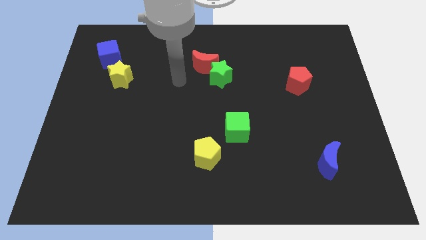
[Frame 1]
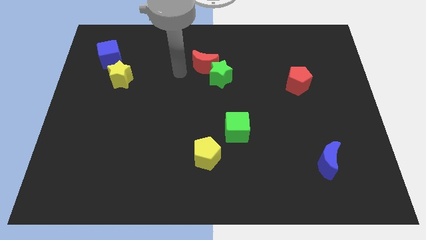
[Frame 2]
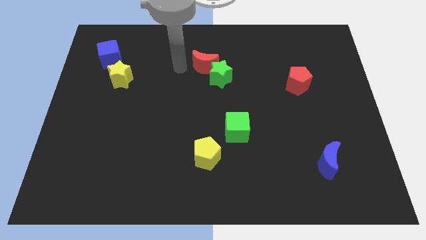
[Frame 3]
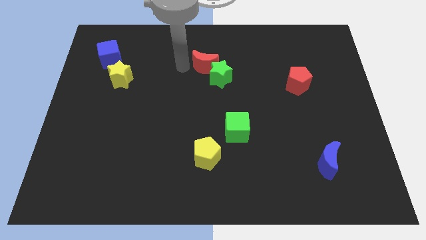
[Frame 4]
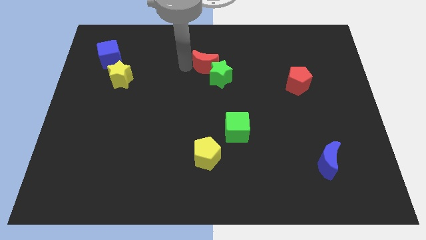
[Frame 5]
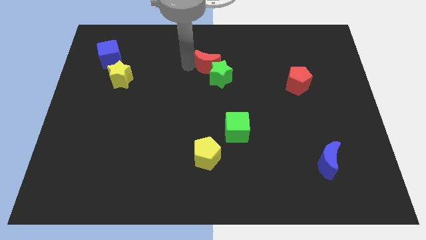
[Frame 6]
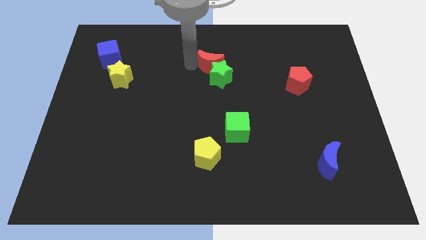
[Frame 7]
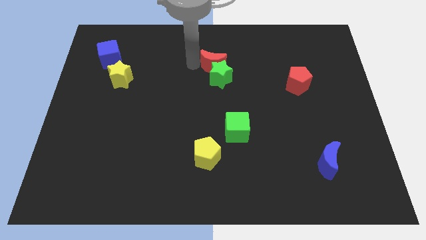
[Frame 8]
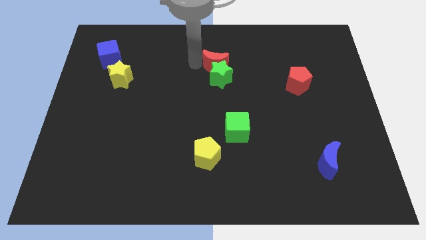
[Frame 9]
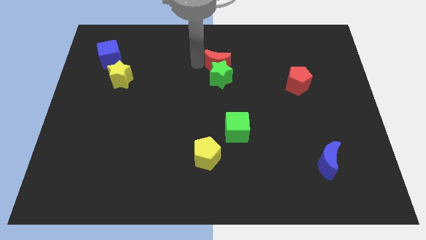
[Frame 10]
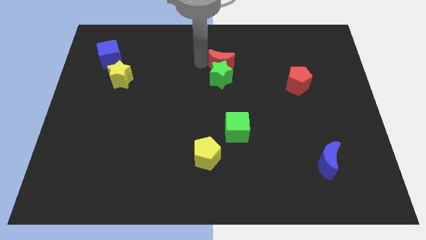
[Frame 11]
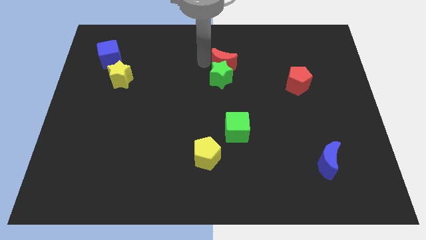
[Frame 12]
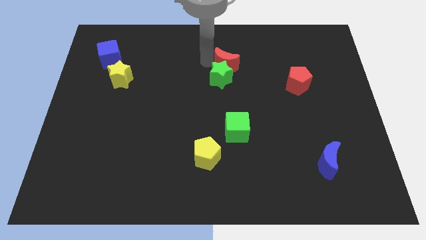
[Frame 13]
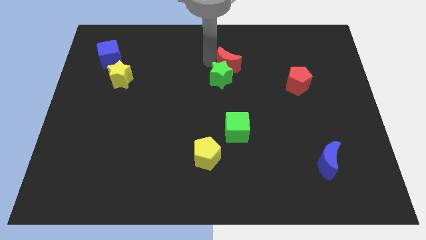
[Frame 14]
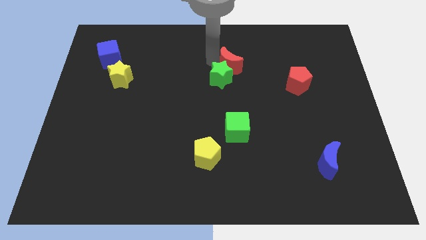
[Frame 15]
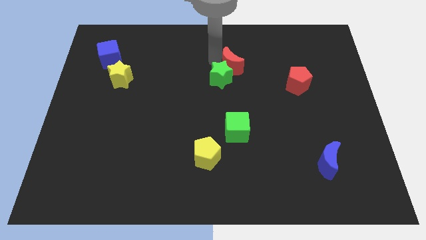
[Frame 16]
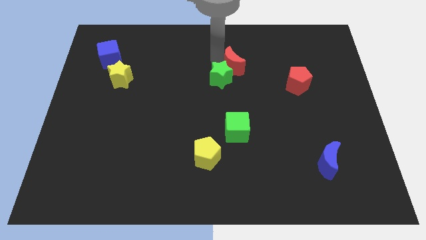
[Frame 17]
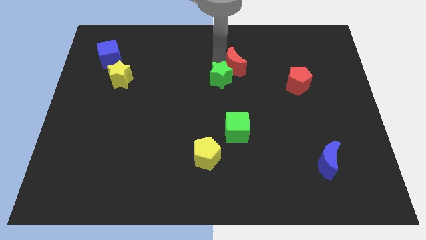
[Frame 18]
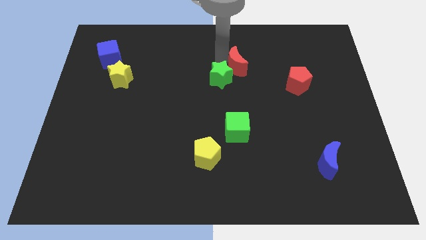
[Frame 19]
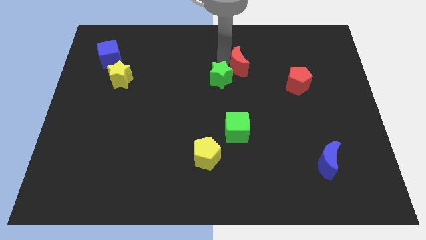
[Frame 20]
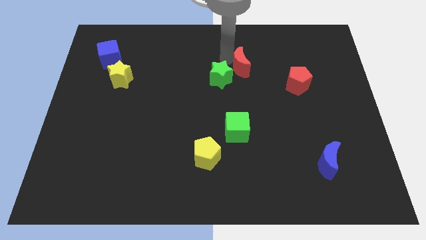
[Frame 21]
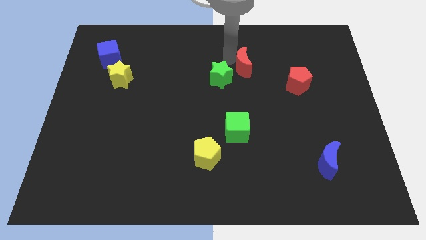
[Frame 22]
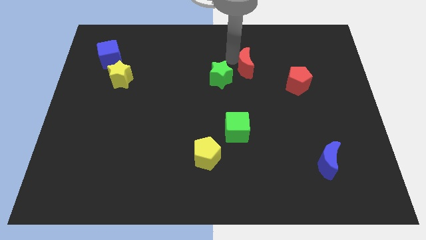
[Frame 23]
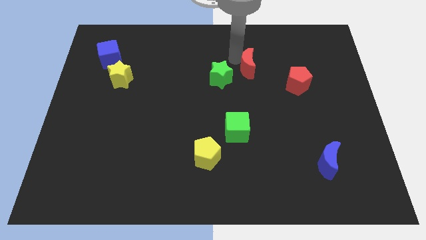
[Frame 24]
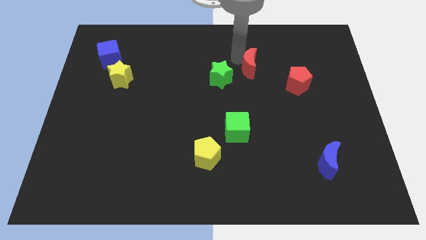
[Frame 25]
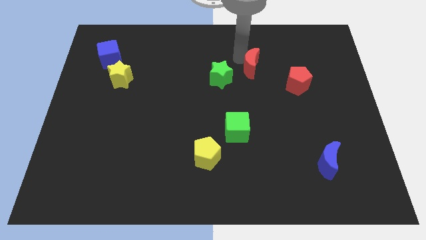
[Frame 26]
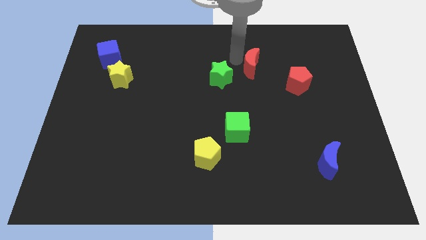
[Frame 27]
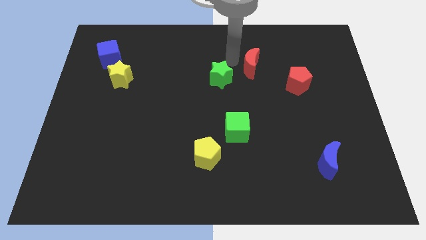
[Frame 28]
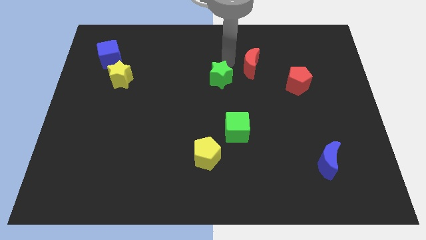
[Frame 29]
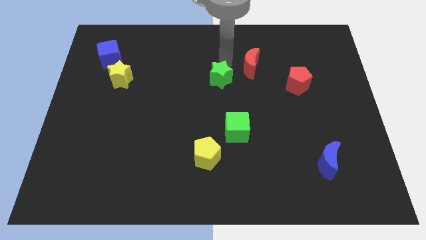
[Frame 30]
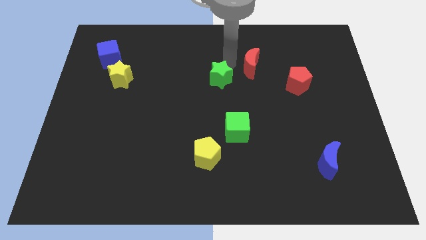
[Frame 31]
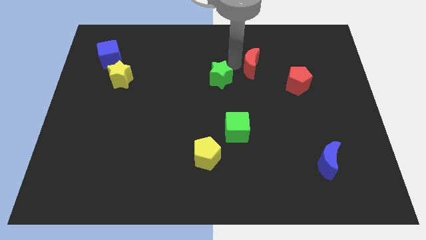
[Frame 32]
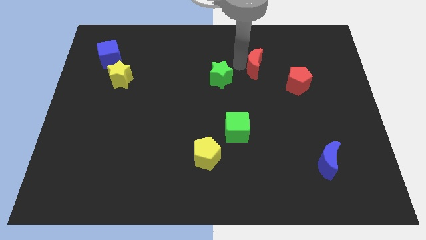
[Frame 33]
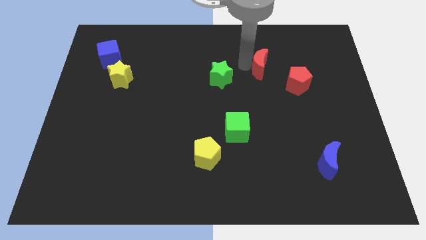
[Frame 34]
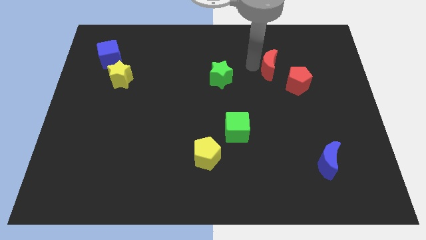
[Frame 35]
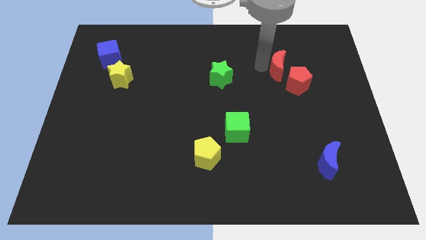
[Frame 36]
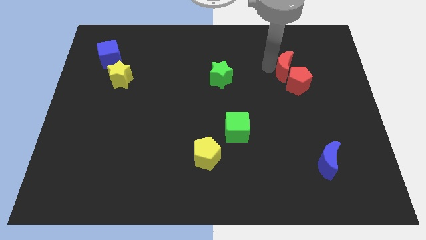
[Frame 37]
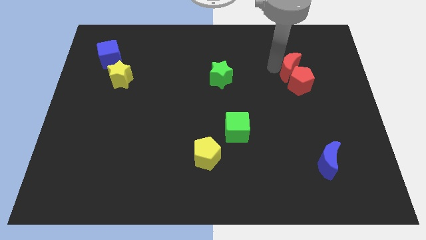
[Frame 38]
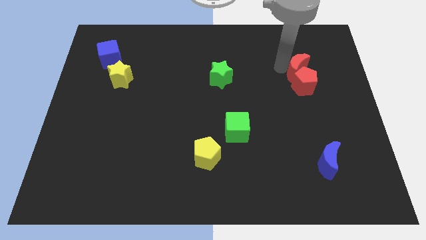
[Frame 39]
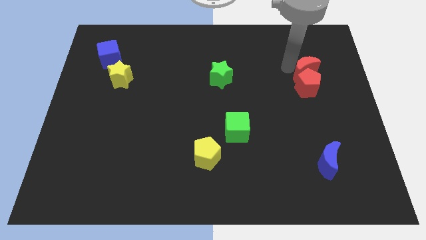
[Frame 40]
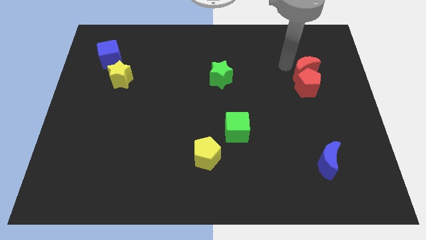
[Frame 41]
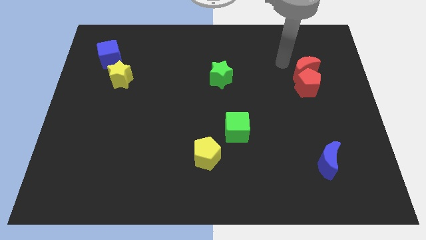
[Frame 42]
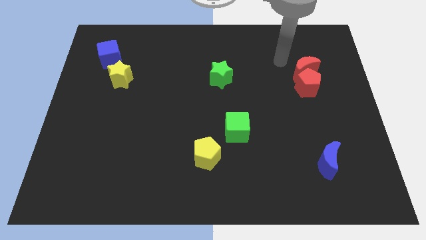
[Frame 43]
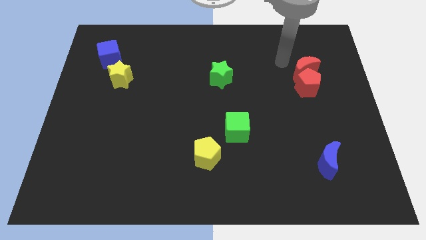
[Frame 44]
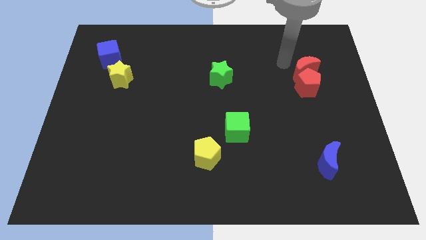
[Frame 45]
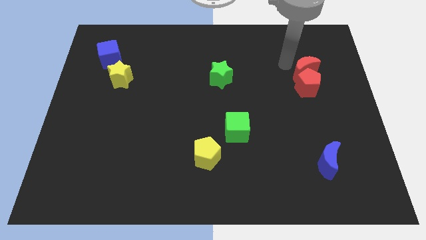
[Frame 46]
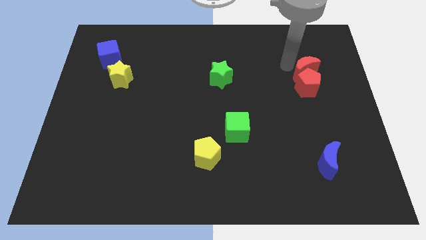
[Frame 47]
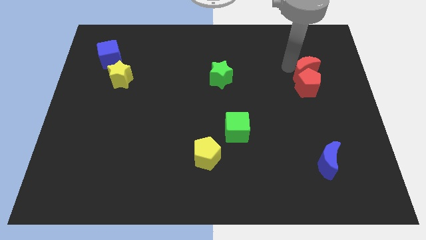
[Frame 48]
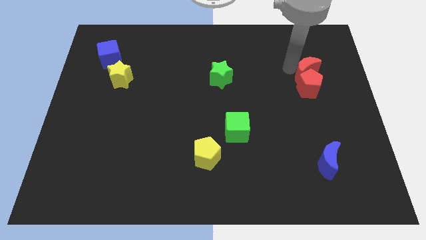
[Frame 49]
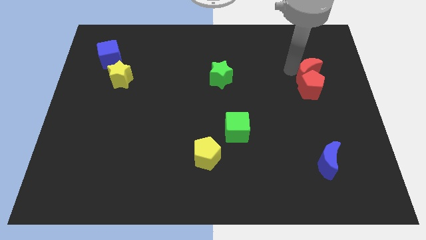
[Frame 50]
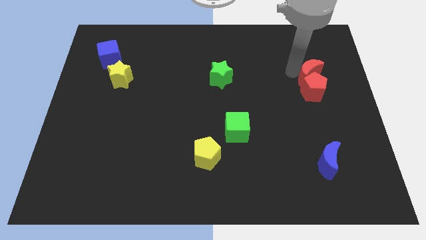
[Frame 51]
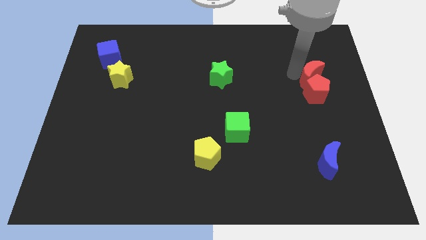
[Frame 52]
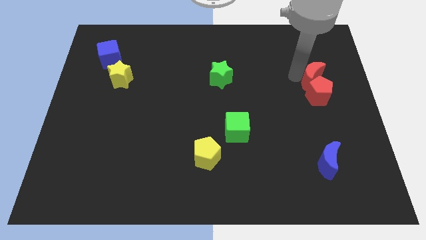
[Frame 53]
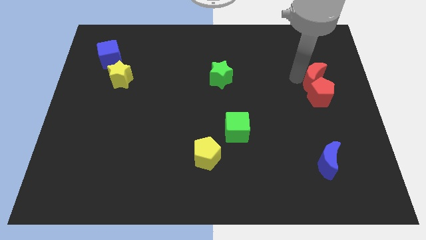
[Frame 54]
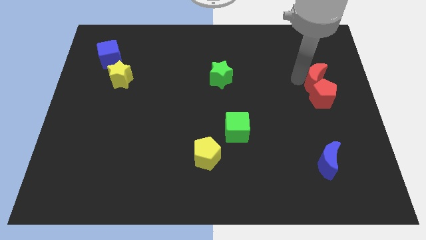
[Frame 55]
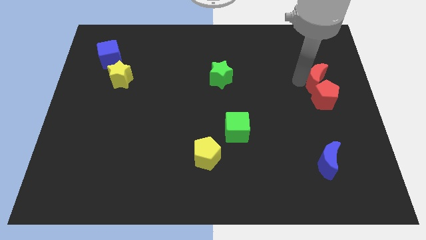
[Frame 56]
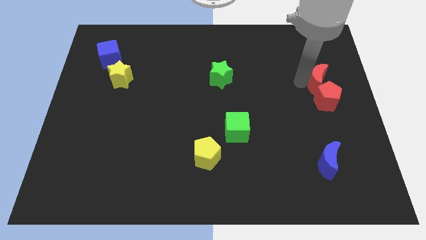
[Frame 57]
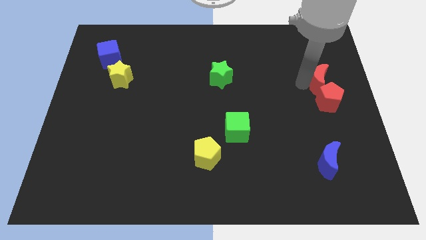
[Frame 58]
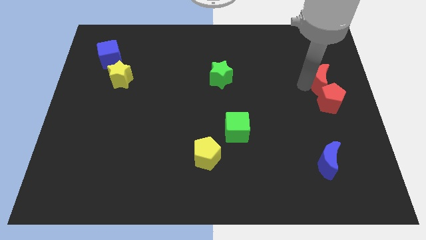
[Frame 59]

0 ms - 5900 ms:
move the red moon to the center right
